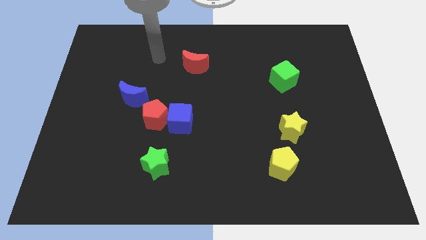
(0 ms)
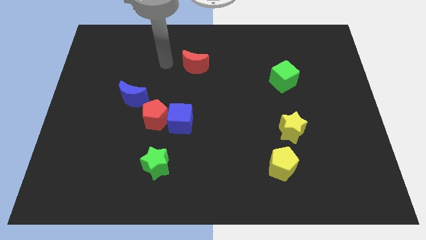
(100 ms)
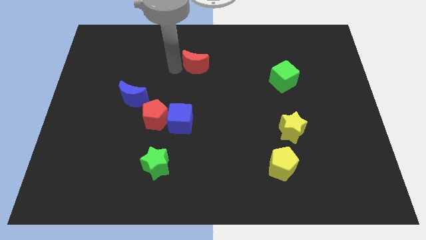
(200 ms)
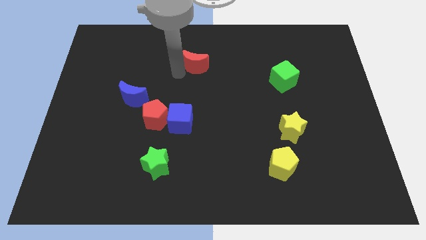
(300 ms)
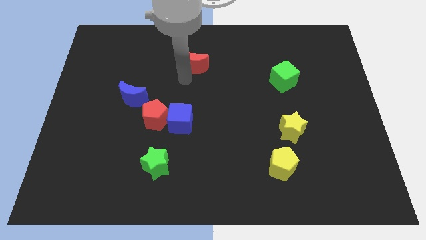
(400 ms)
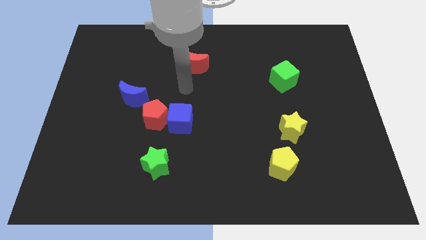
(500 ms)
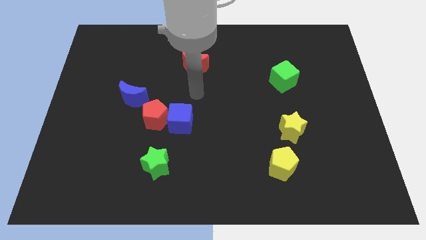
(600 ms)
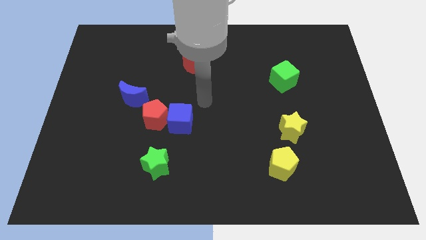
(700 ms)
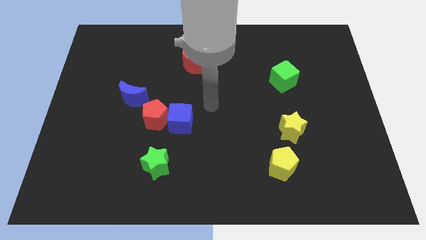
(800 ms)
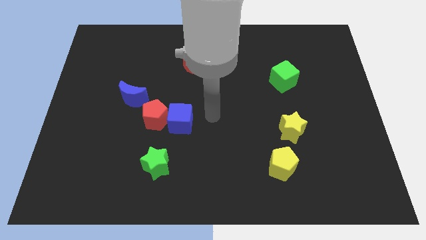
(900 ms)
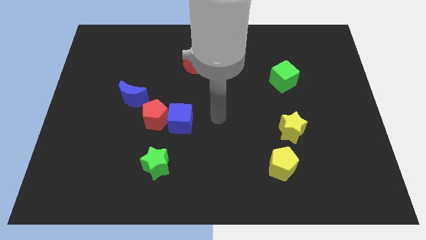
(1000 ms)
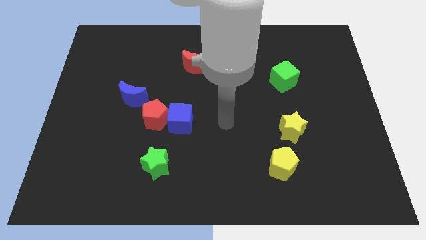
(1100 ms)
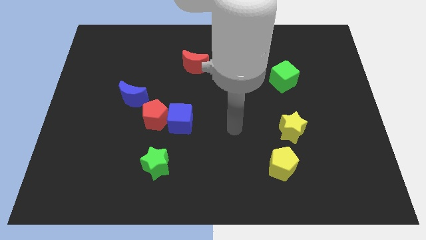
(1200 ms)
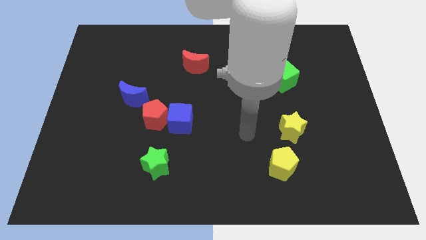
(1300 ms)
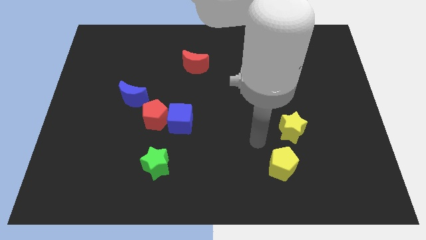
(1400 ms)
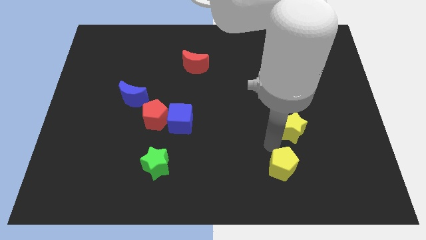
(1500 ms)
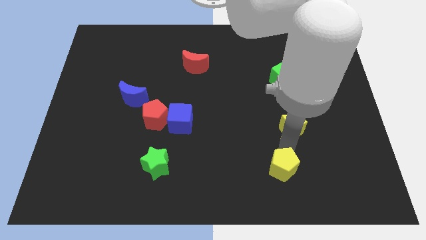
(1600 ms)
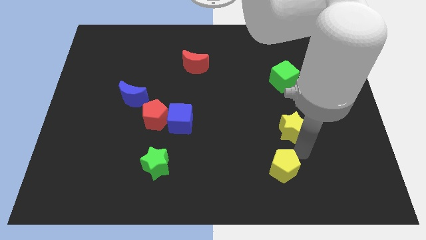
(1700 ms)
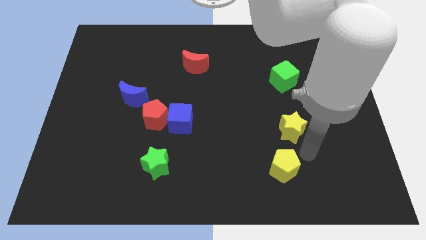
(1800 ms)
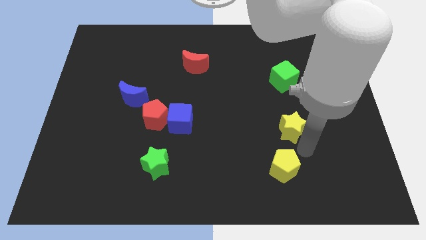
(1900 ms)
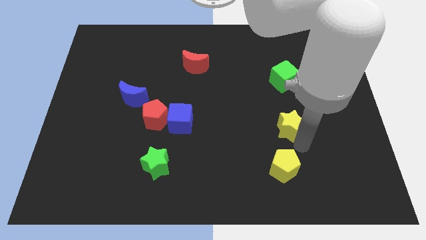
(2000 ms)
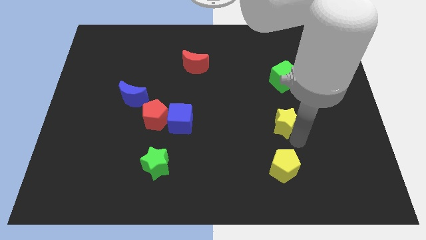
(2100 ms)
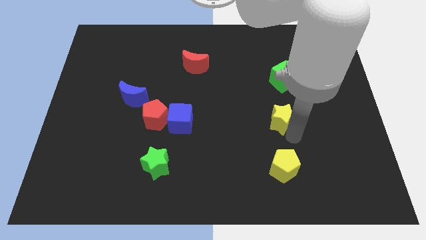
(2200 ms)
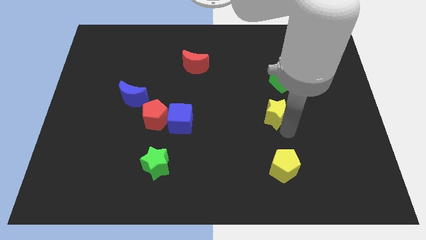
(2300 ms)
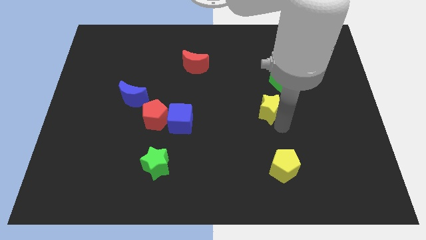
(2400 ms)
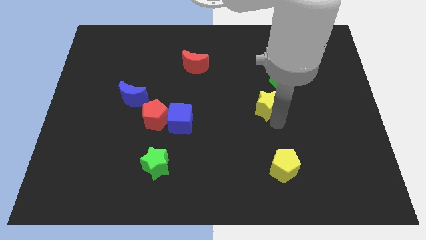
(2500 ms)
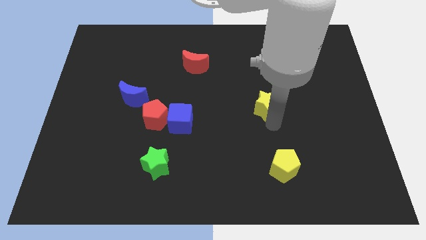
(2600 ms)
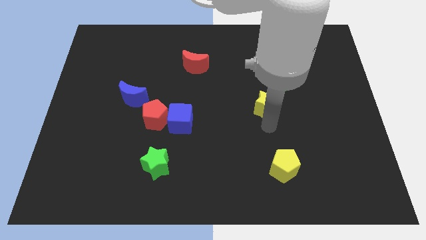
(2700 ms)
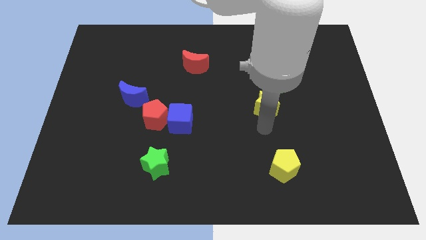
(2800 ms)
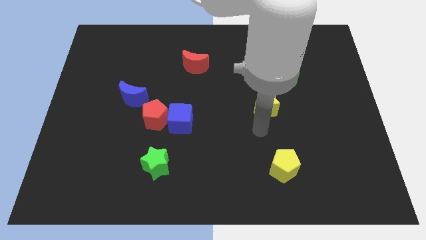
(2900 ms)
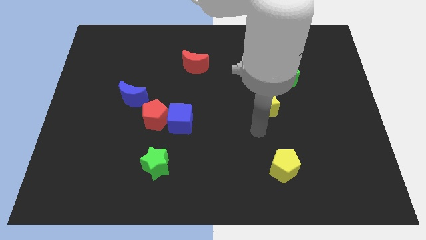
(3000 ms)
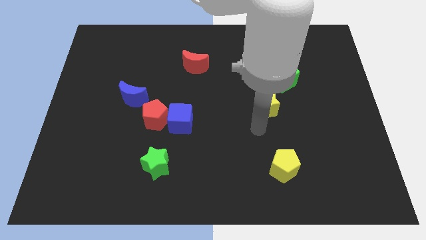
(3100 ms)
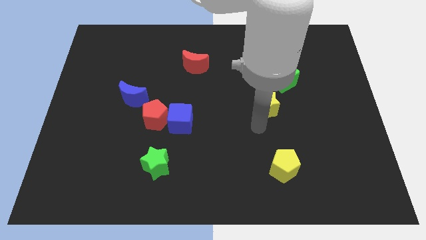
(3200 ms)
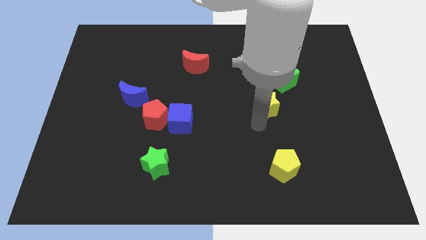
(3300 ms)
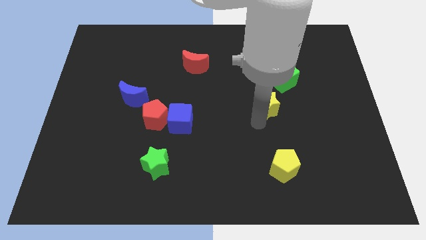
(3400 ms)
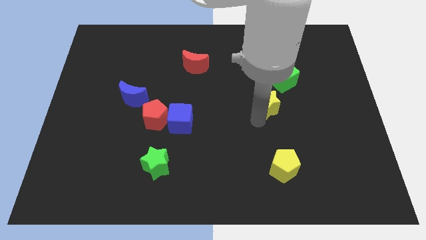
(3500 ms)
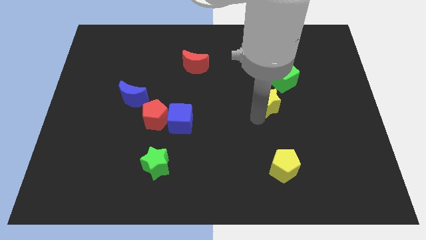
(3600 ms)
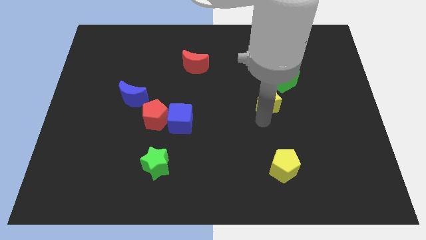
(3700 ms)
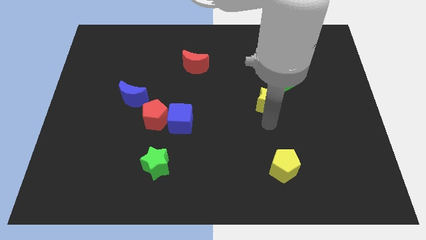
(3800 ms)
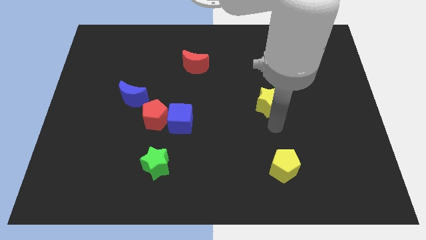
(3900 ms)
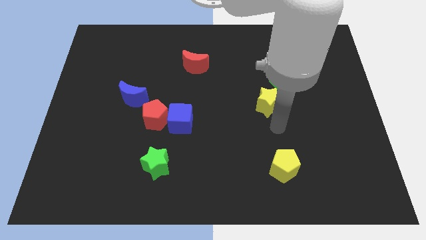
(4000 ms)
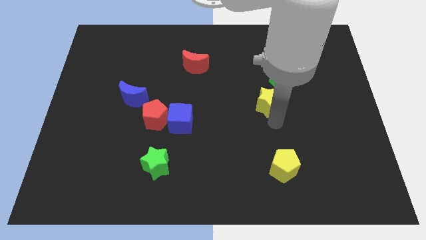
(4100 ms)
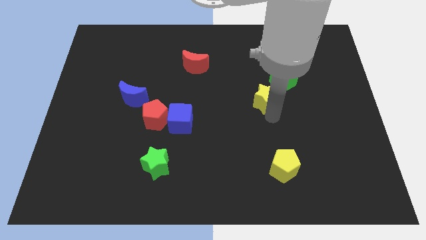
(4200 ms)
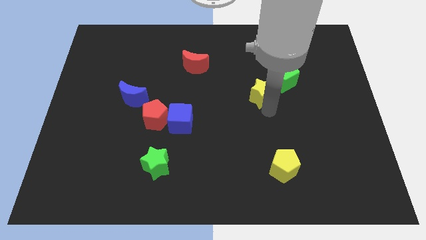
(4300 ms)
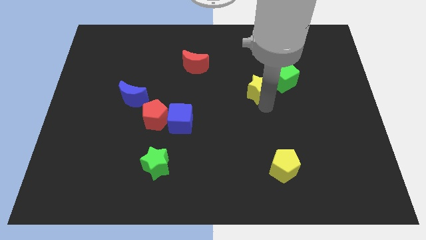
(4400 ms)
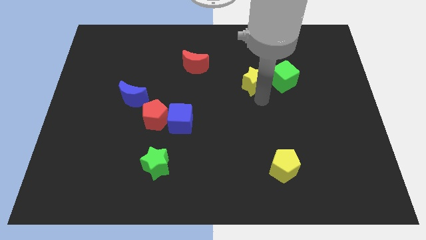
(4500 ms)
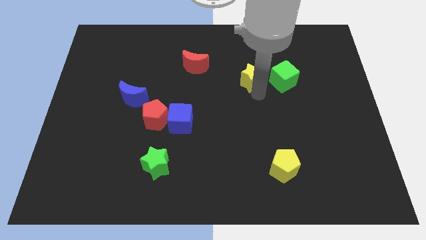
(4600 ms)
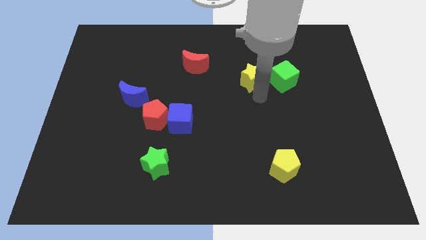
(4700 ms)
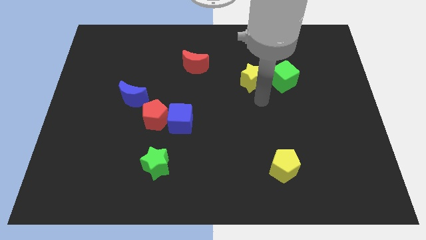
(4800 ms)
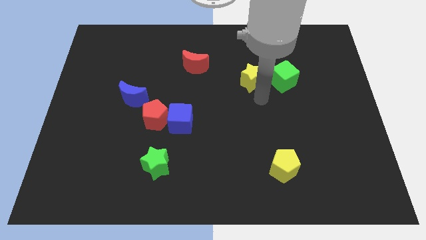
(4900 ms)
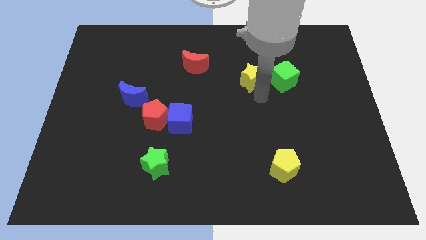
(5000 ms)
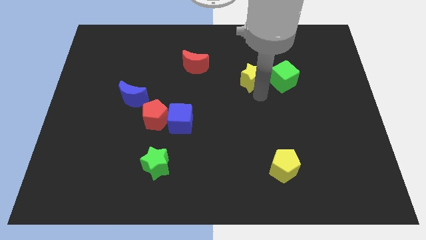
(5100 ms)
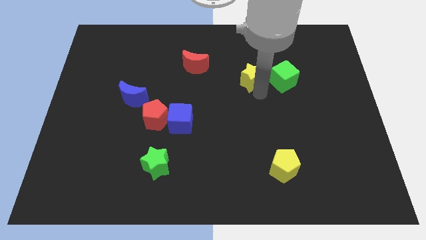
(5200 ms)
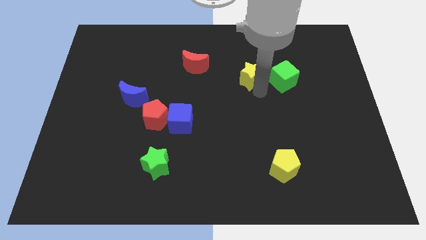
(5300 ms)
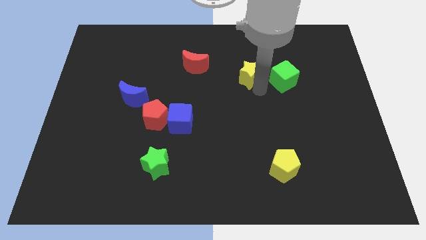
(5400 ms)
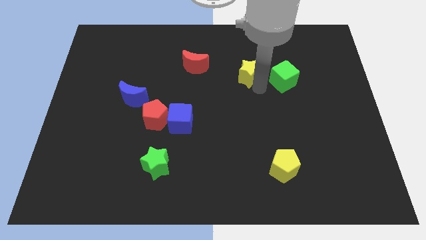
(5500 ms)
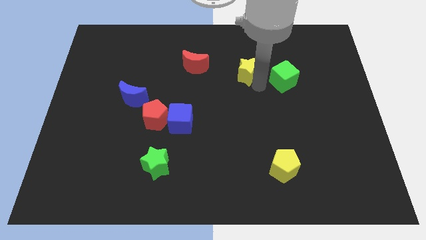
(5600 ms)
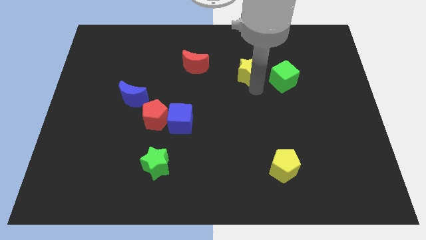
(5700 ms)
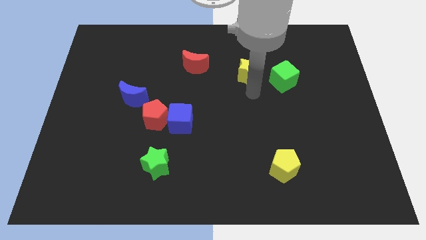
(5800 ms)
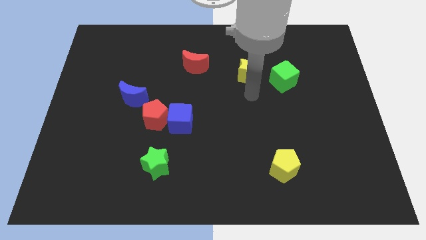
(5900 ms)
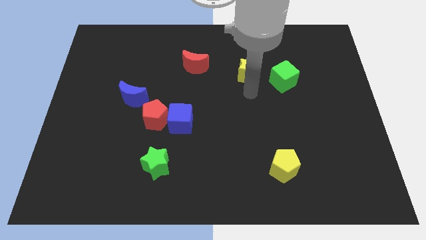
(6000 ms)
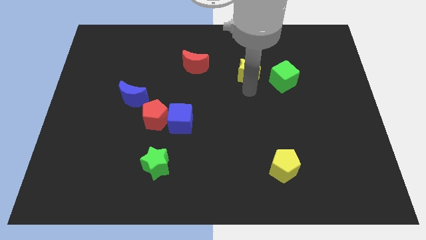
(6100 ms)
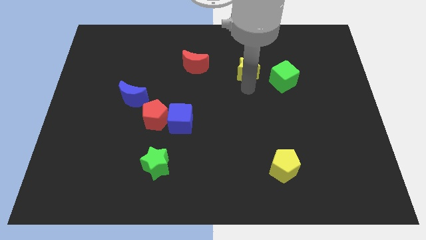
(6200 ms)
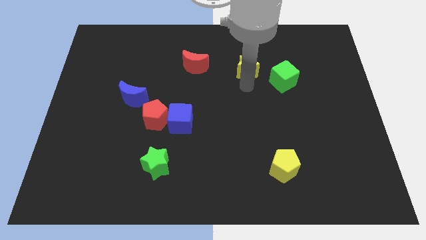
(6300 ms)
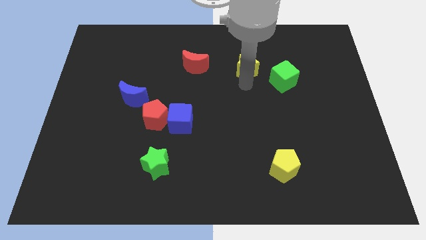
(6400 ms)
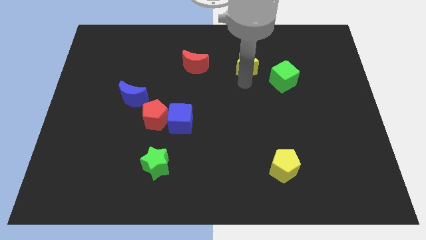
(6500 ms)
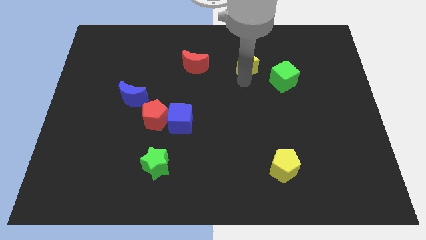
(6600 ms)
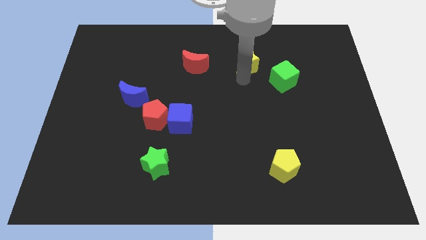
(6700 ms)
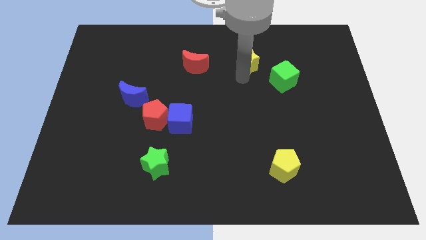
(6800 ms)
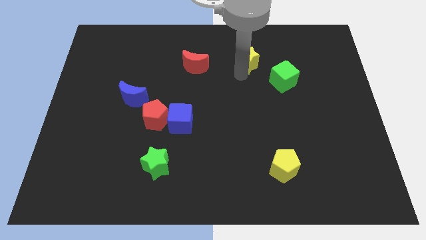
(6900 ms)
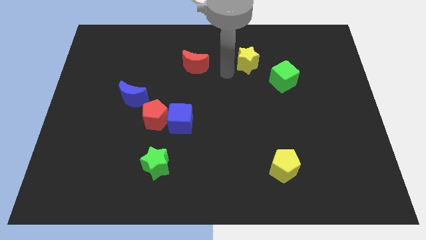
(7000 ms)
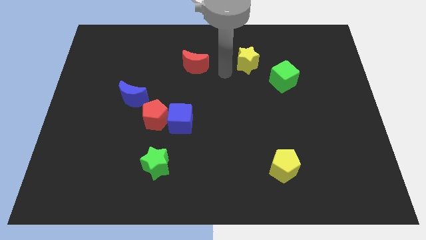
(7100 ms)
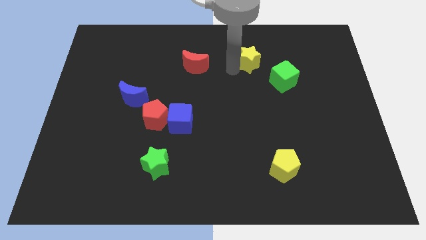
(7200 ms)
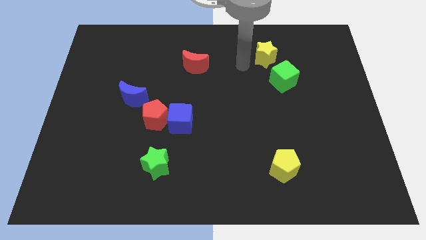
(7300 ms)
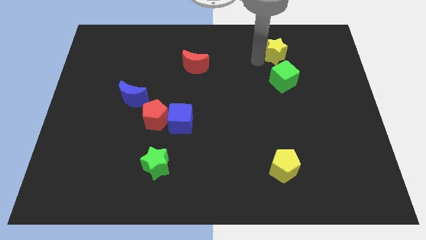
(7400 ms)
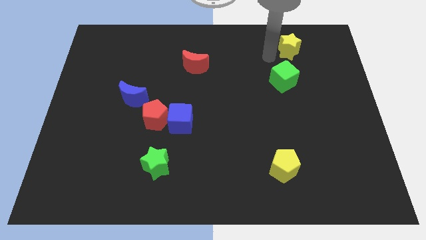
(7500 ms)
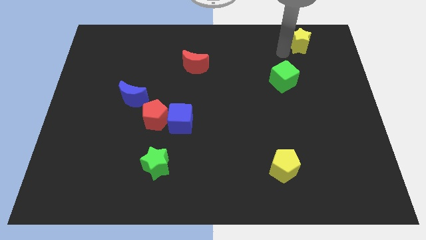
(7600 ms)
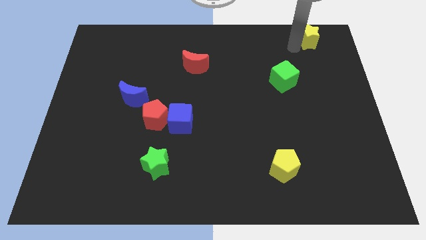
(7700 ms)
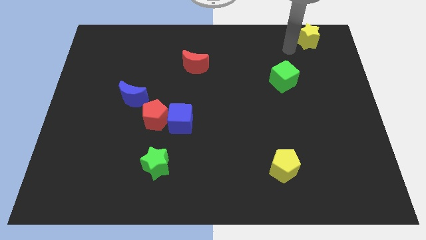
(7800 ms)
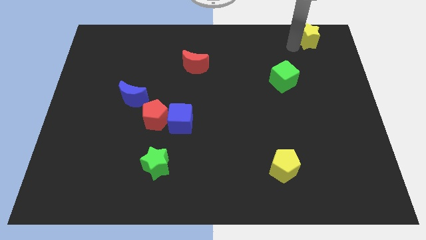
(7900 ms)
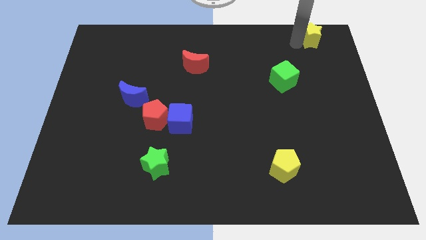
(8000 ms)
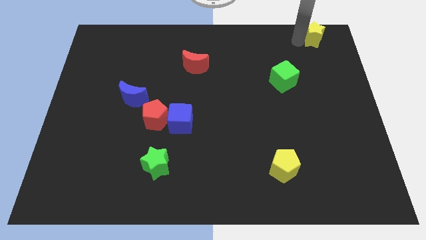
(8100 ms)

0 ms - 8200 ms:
push the yellow star to the top right of the board
